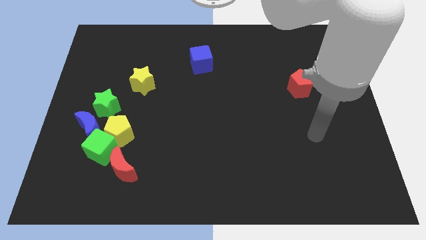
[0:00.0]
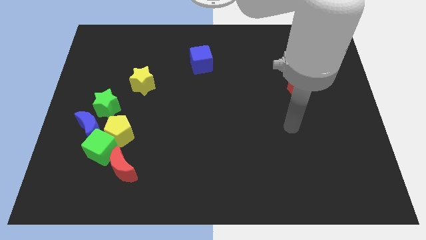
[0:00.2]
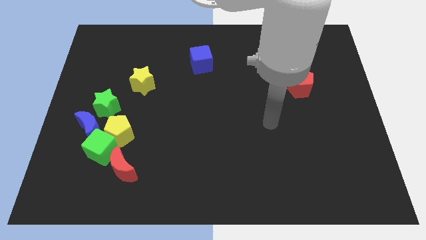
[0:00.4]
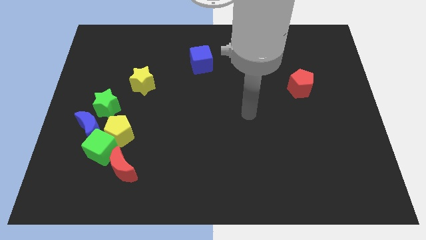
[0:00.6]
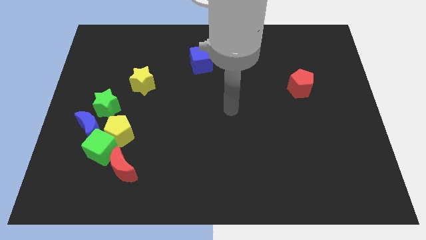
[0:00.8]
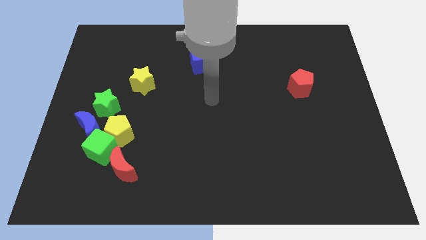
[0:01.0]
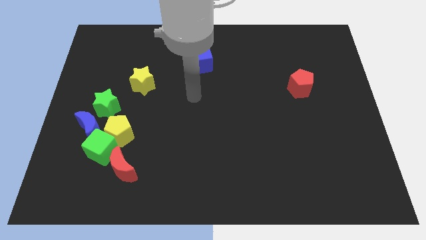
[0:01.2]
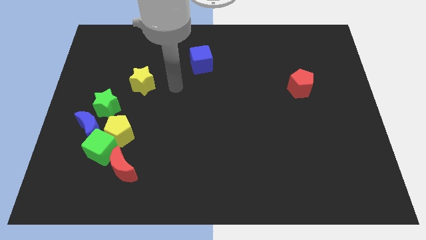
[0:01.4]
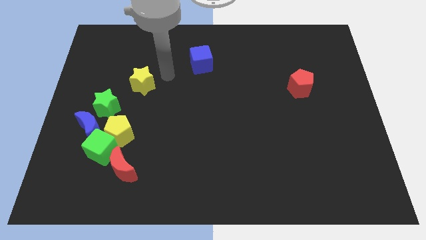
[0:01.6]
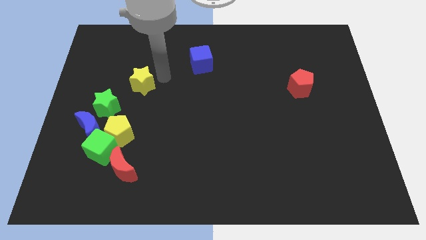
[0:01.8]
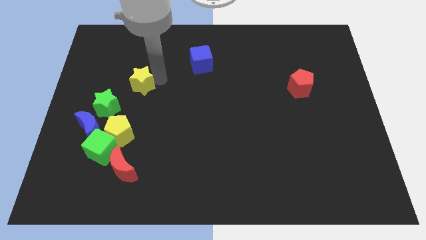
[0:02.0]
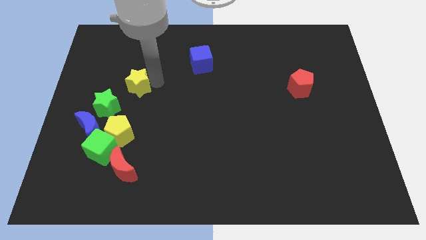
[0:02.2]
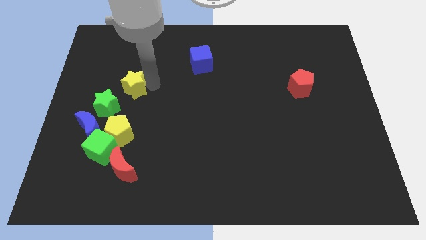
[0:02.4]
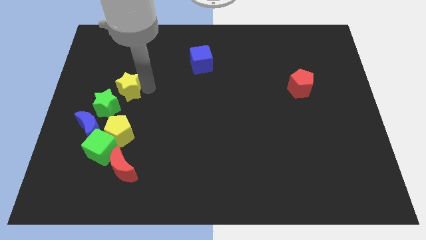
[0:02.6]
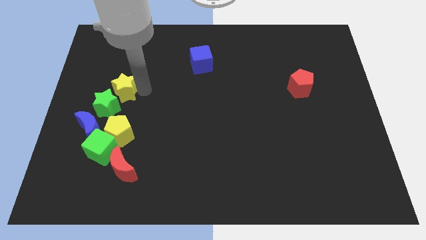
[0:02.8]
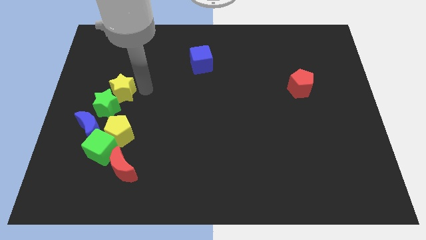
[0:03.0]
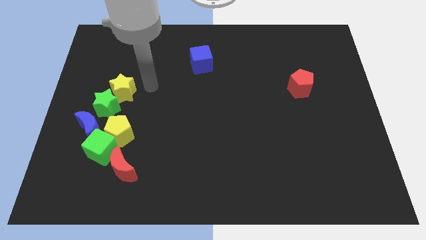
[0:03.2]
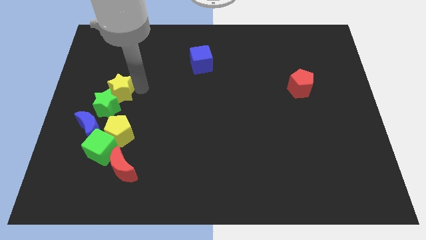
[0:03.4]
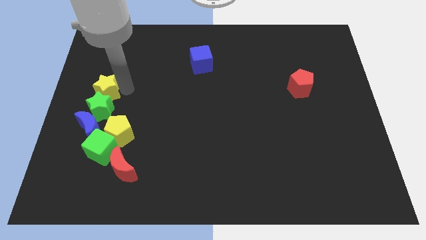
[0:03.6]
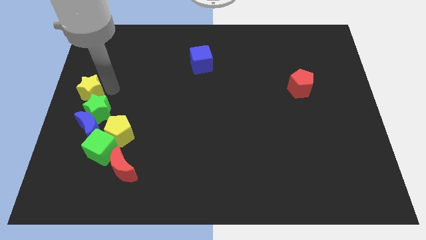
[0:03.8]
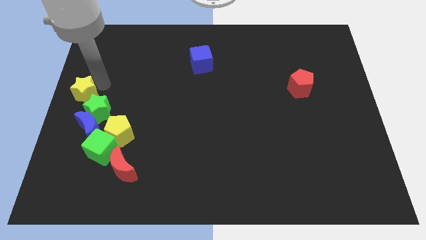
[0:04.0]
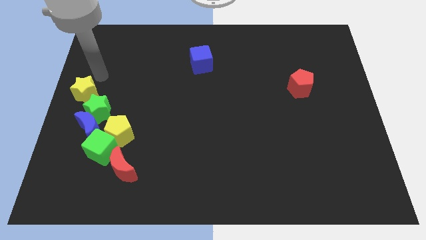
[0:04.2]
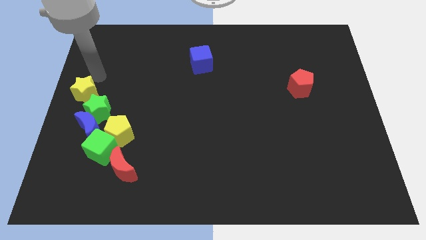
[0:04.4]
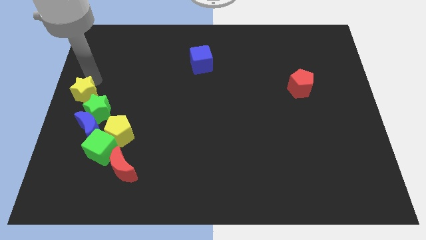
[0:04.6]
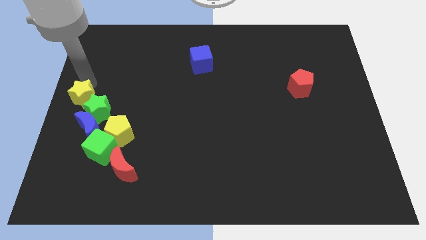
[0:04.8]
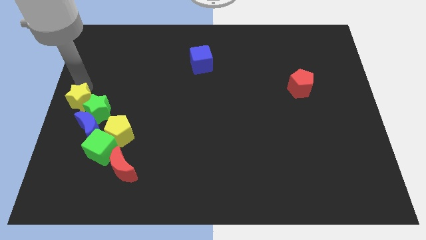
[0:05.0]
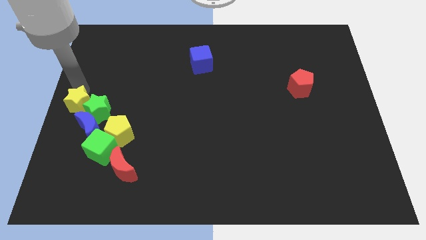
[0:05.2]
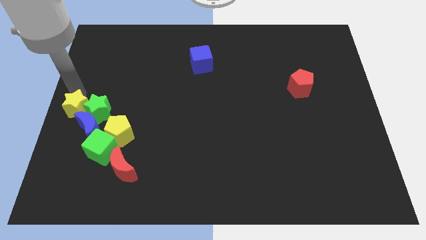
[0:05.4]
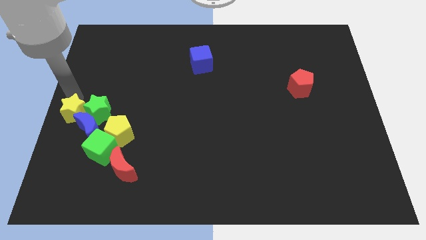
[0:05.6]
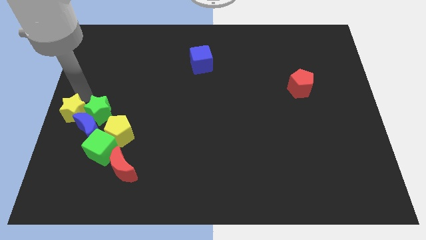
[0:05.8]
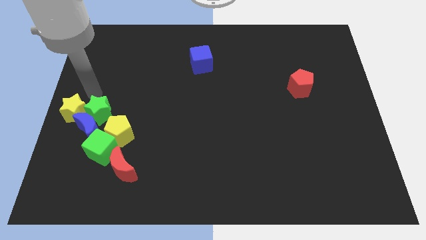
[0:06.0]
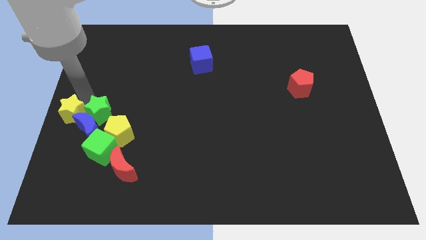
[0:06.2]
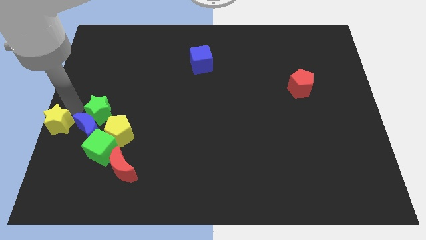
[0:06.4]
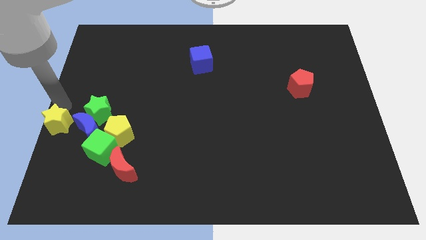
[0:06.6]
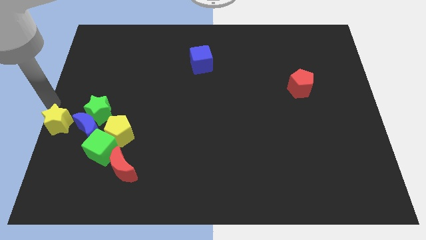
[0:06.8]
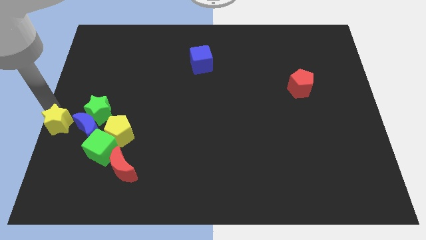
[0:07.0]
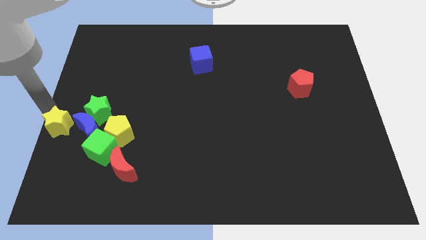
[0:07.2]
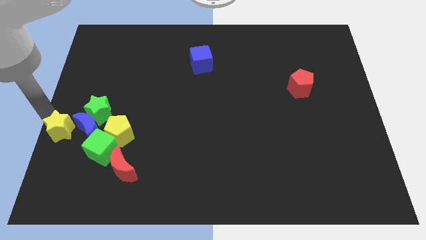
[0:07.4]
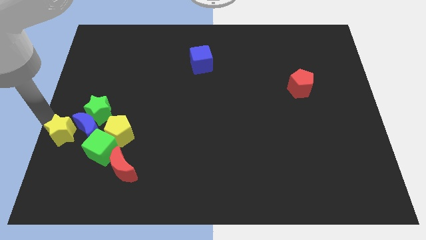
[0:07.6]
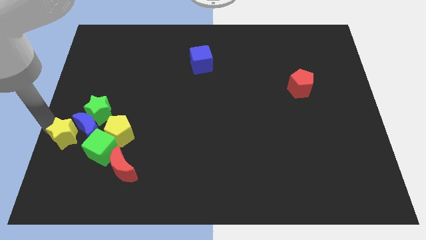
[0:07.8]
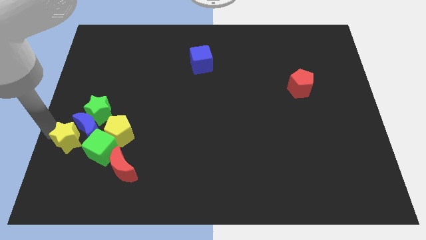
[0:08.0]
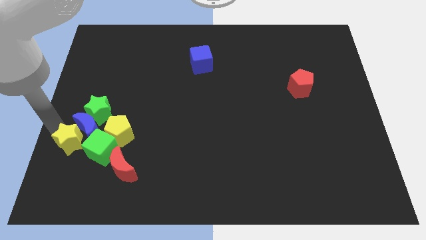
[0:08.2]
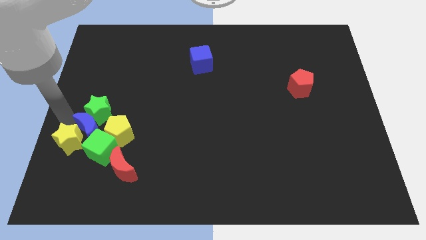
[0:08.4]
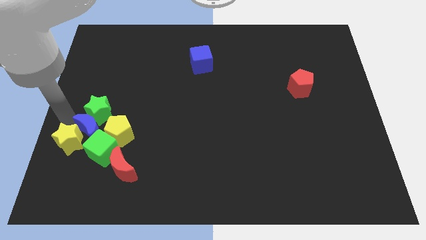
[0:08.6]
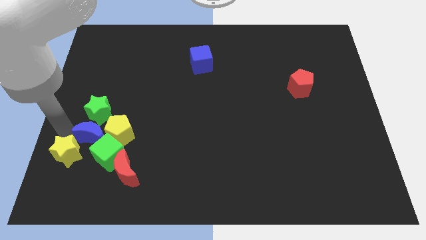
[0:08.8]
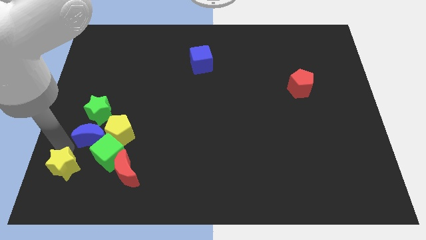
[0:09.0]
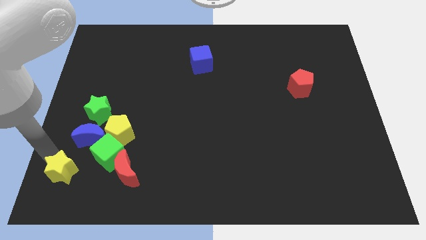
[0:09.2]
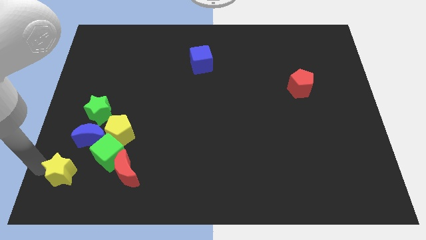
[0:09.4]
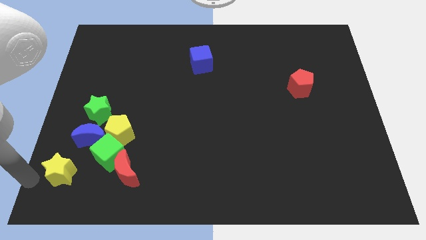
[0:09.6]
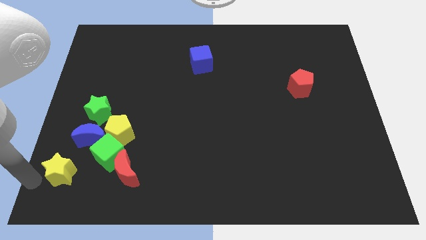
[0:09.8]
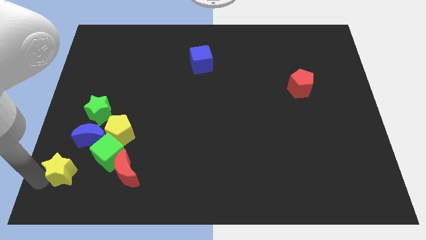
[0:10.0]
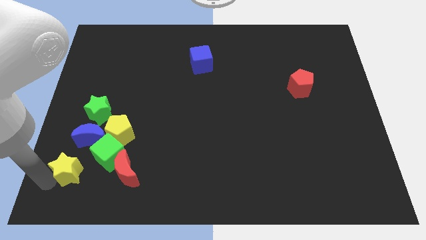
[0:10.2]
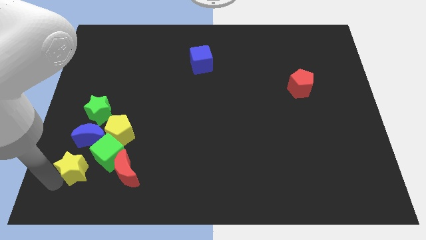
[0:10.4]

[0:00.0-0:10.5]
push the yellow star to the bottom of the green star

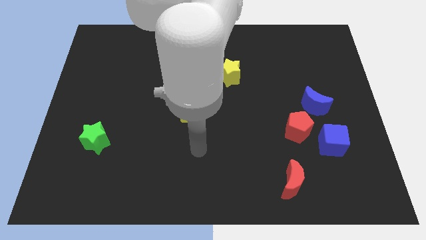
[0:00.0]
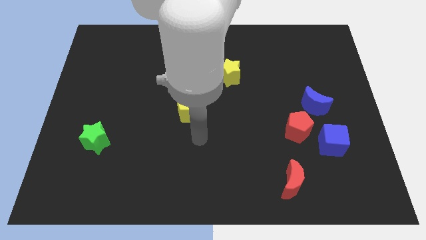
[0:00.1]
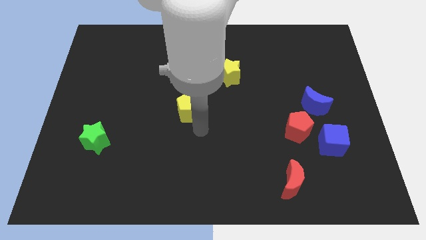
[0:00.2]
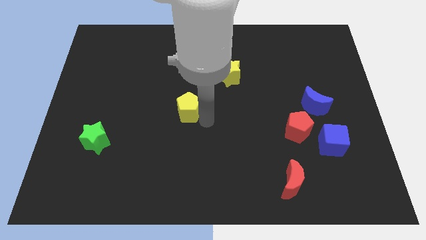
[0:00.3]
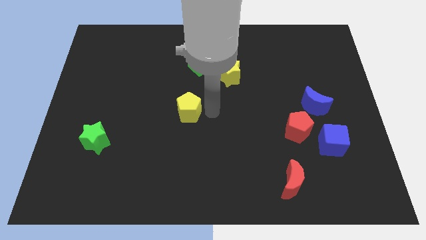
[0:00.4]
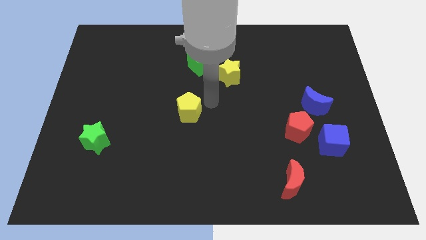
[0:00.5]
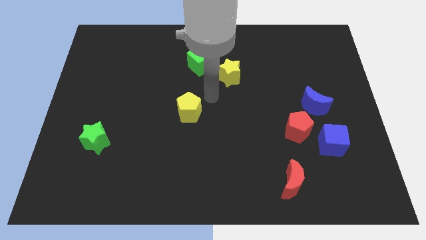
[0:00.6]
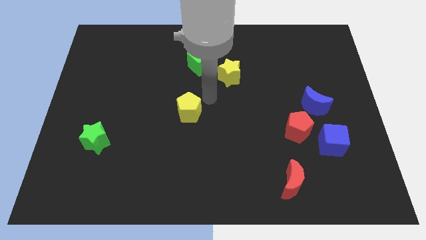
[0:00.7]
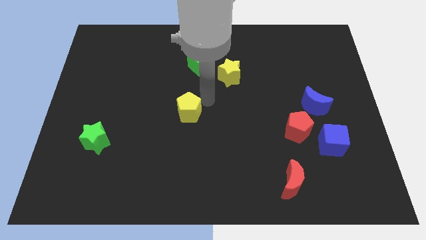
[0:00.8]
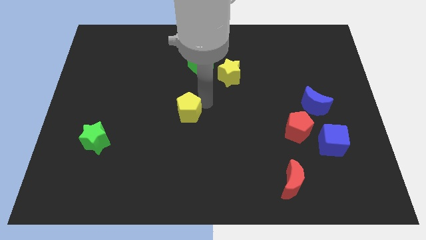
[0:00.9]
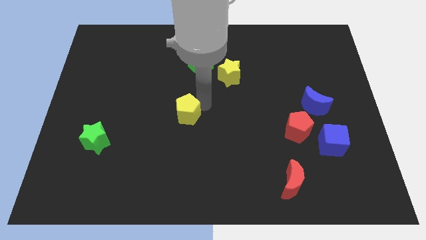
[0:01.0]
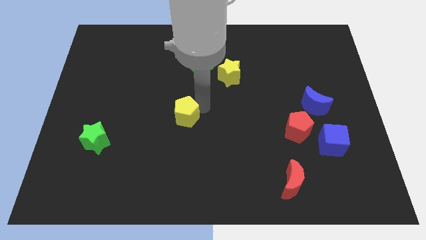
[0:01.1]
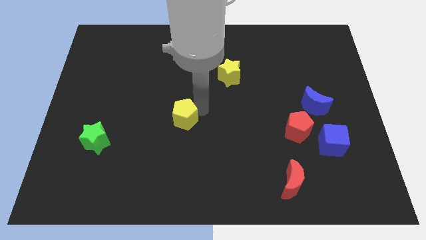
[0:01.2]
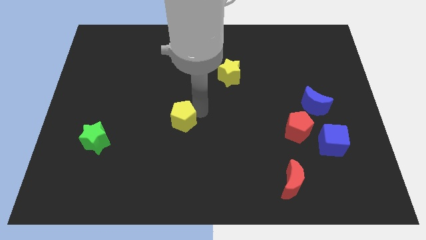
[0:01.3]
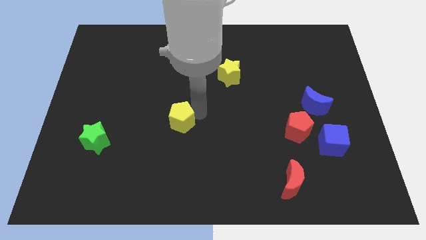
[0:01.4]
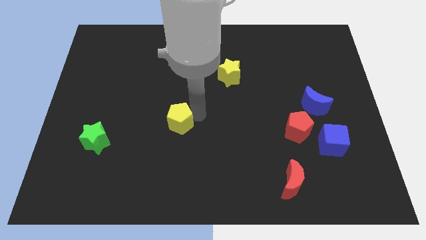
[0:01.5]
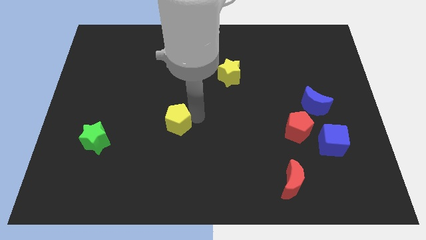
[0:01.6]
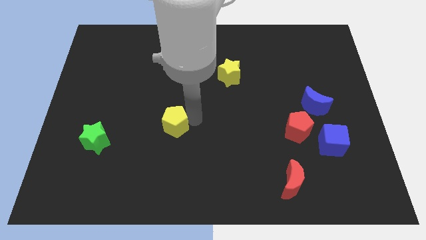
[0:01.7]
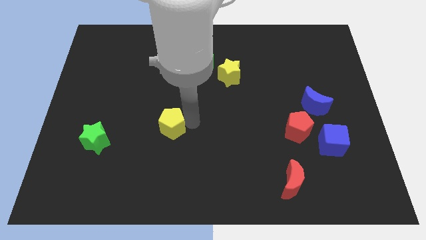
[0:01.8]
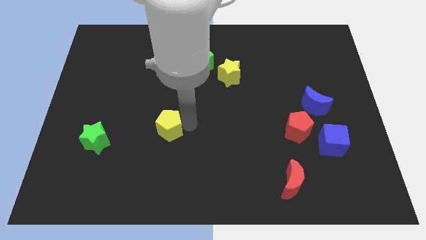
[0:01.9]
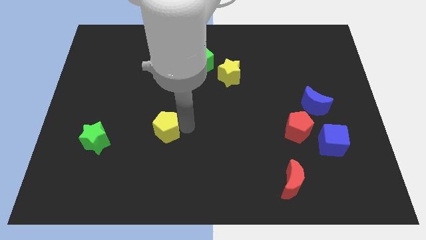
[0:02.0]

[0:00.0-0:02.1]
slide the yellow pentagon to the right of the green star
